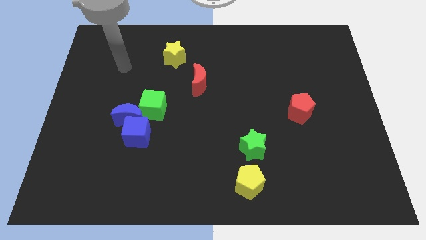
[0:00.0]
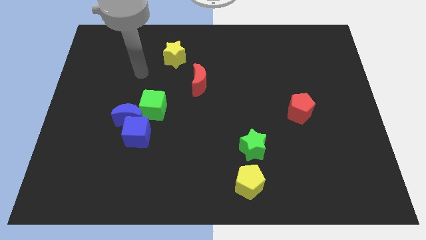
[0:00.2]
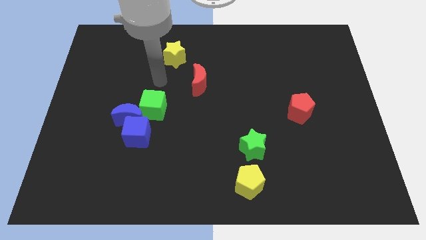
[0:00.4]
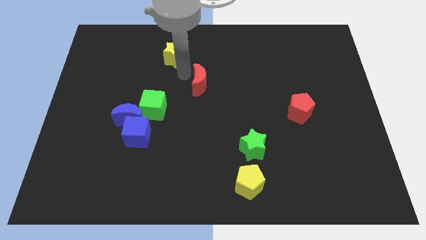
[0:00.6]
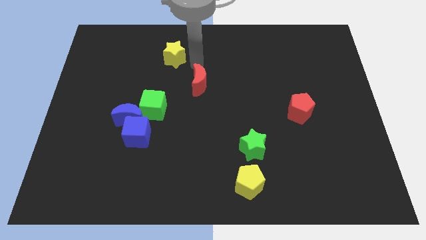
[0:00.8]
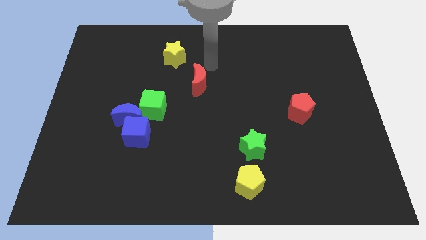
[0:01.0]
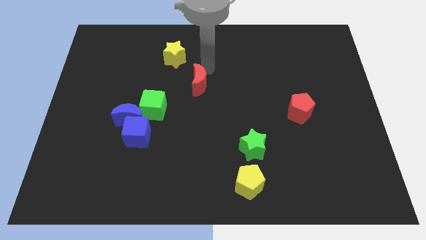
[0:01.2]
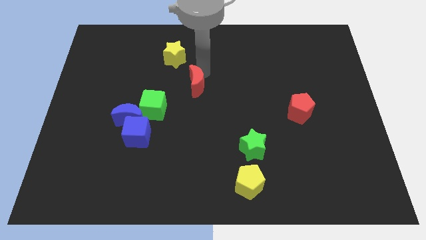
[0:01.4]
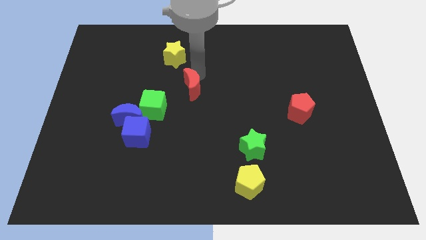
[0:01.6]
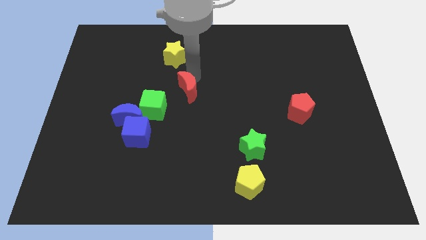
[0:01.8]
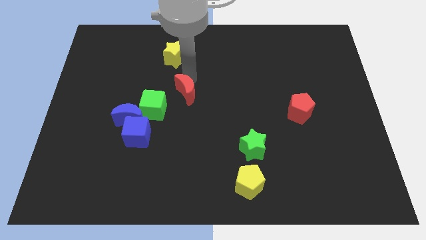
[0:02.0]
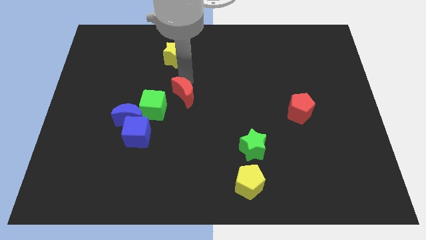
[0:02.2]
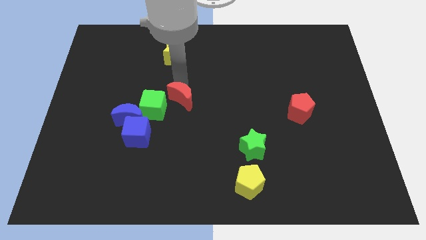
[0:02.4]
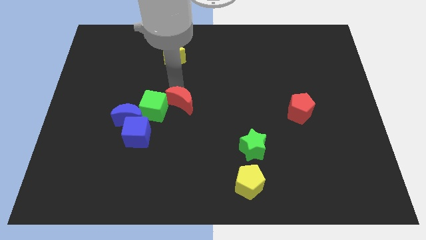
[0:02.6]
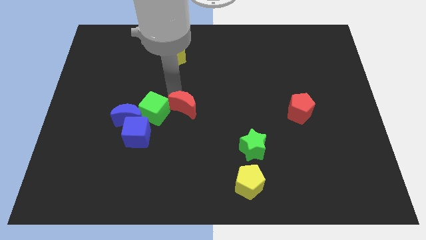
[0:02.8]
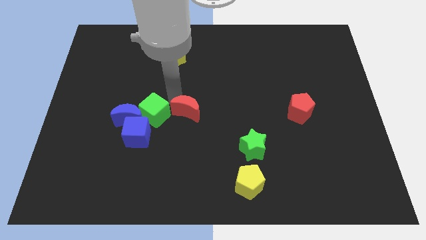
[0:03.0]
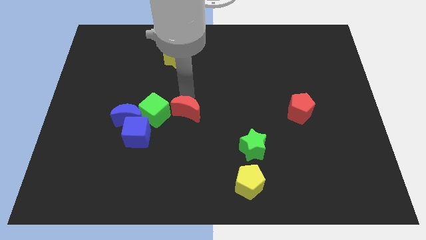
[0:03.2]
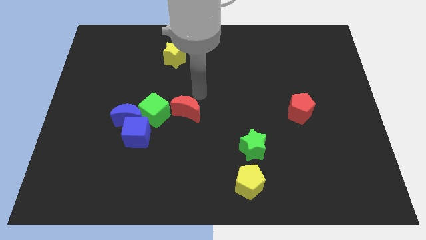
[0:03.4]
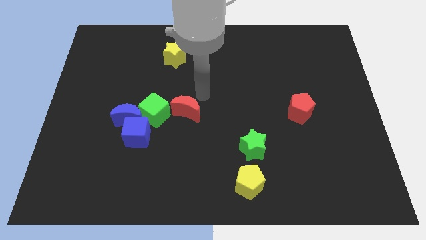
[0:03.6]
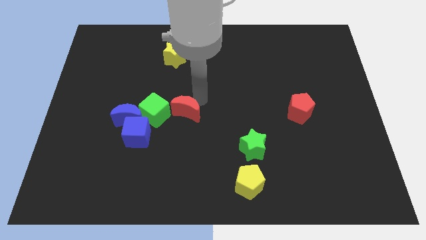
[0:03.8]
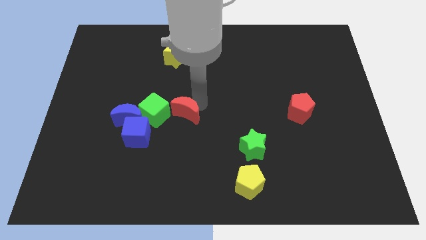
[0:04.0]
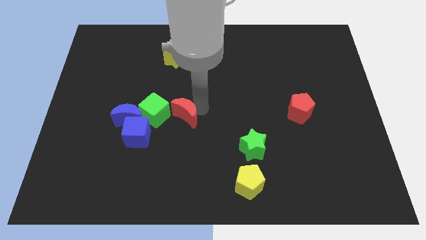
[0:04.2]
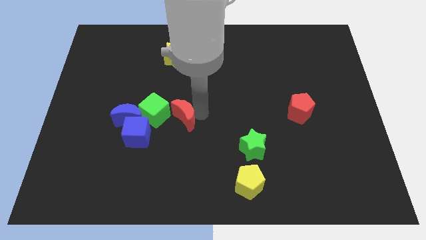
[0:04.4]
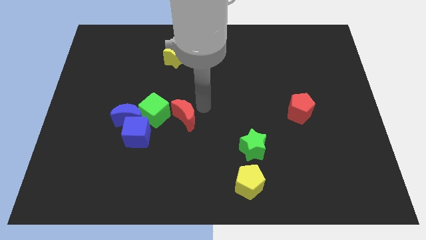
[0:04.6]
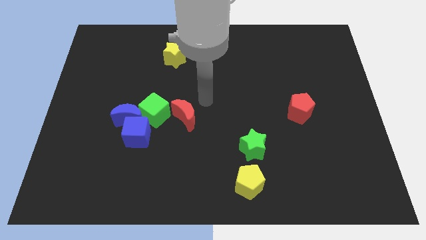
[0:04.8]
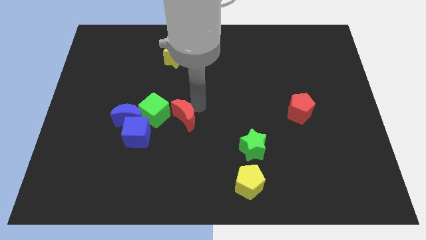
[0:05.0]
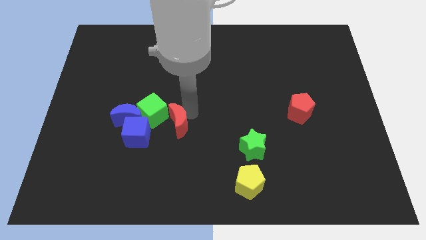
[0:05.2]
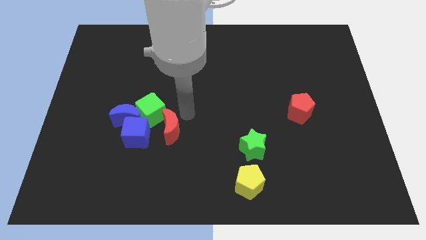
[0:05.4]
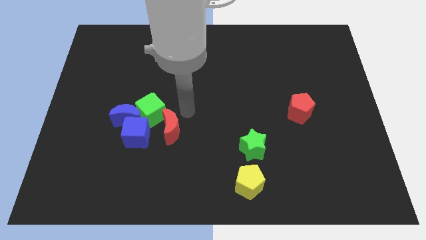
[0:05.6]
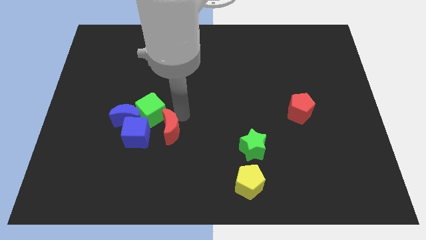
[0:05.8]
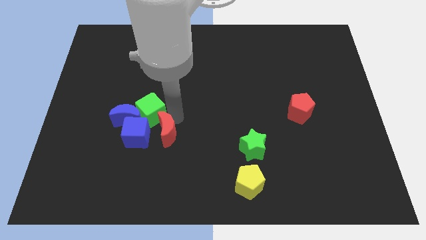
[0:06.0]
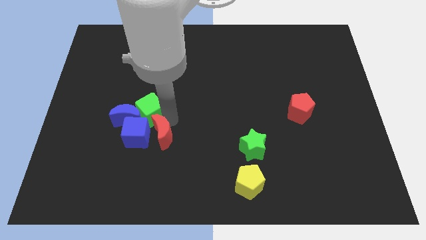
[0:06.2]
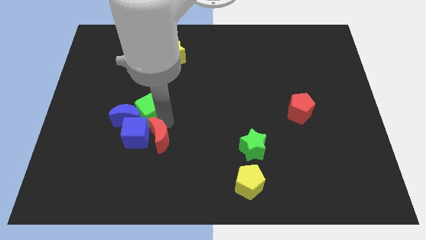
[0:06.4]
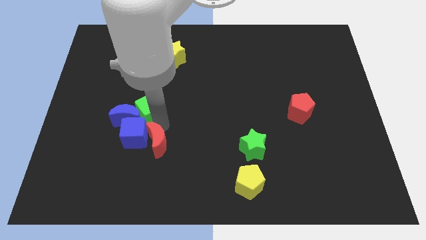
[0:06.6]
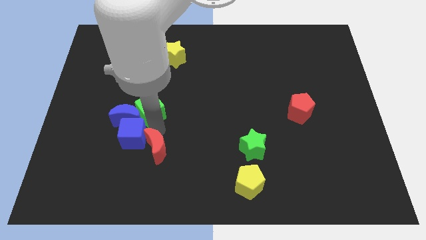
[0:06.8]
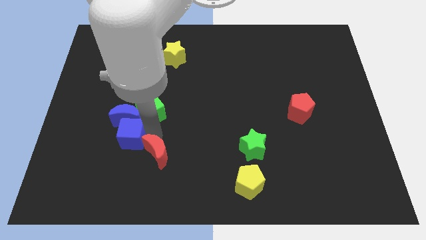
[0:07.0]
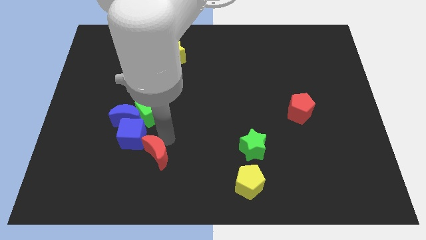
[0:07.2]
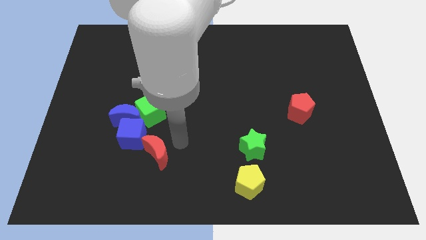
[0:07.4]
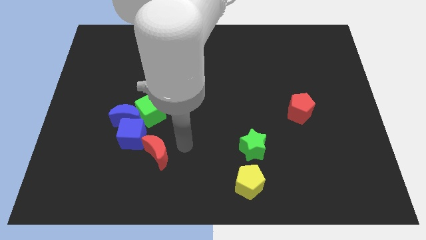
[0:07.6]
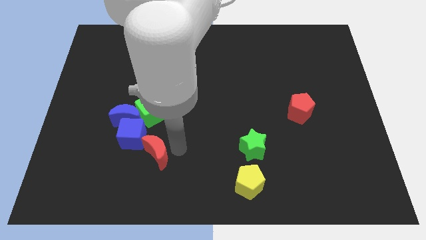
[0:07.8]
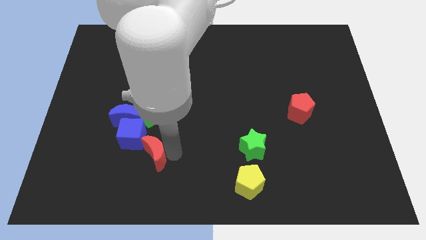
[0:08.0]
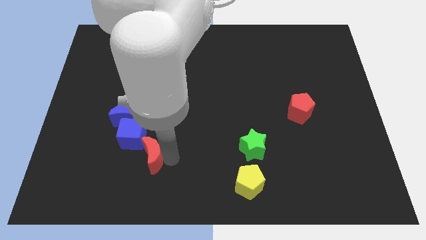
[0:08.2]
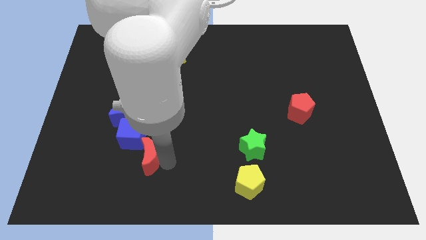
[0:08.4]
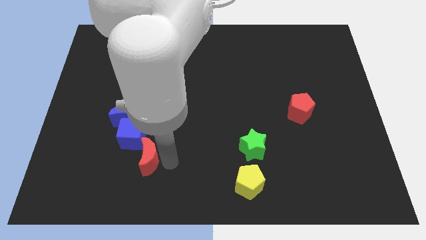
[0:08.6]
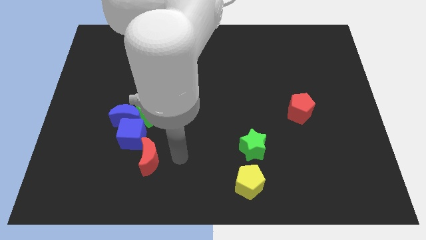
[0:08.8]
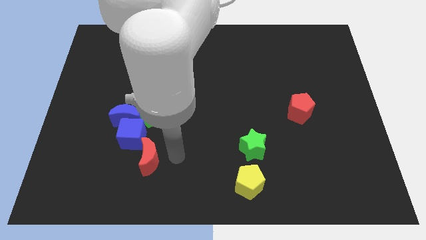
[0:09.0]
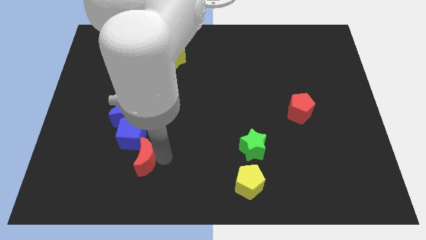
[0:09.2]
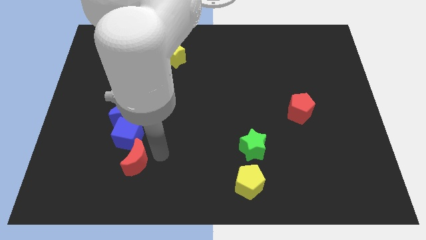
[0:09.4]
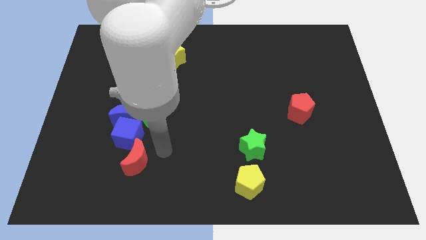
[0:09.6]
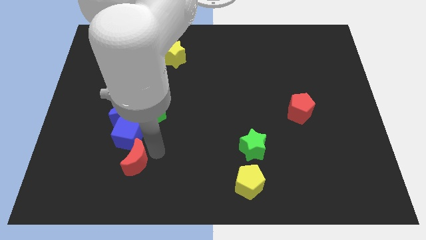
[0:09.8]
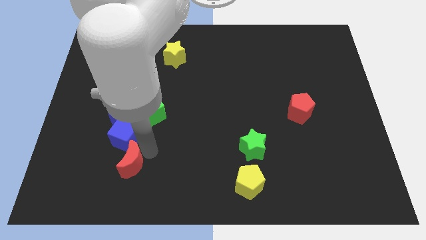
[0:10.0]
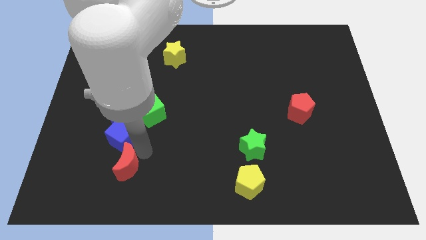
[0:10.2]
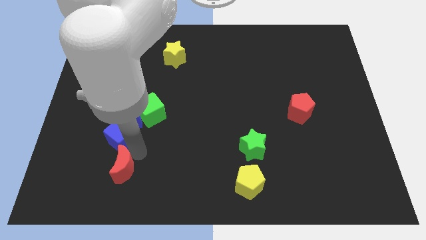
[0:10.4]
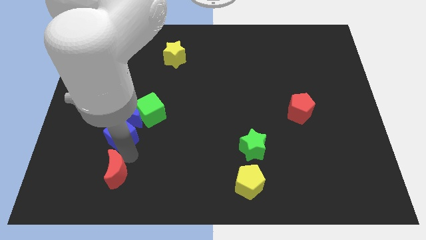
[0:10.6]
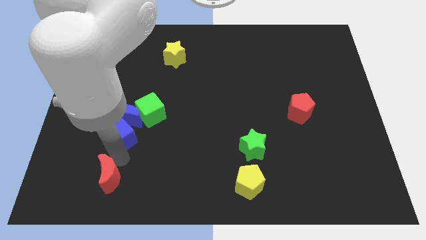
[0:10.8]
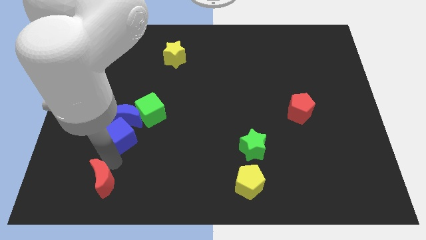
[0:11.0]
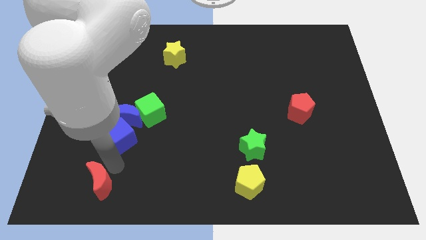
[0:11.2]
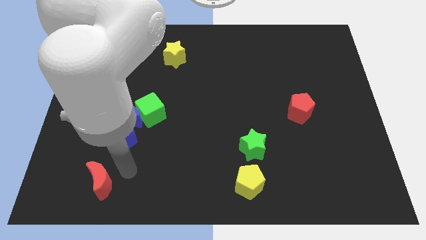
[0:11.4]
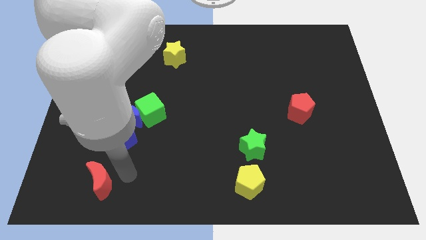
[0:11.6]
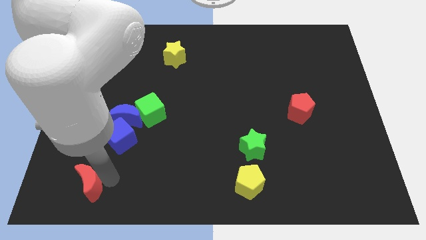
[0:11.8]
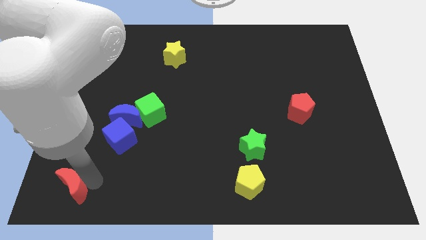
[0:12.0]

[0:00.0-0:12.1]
put the red moon to the bottom left of the board
